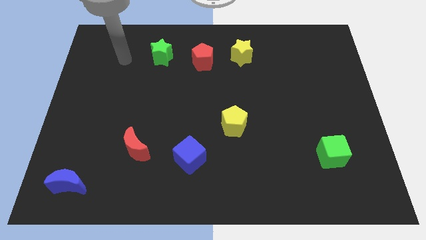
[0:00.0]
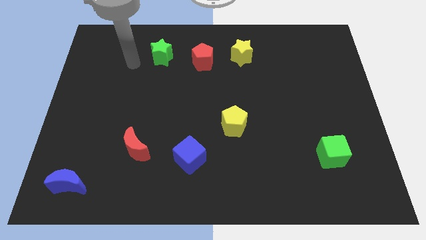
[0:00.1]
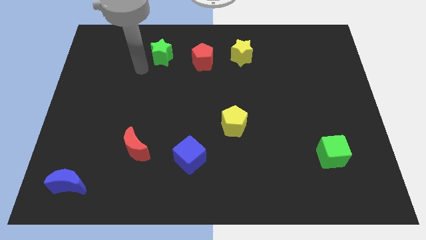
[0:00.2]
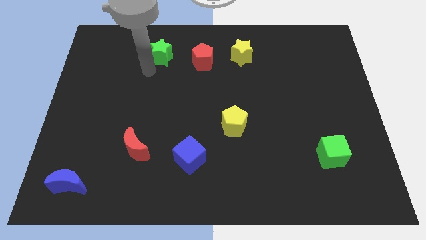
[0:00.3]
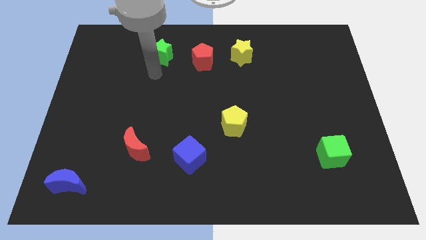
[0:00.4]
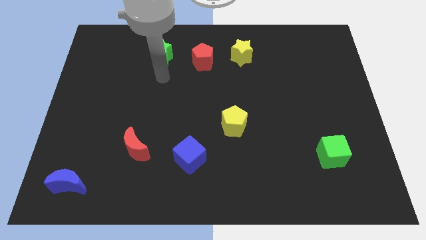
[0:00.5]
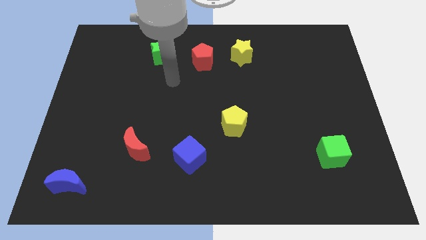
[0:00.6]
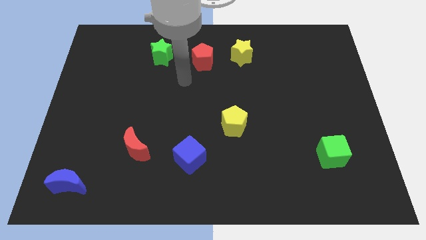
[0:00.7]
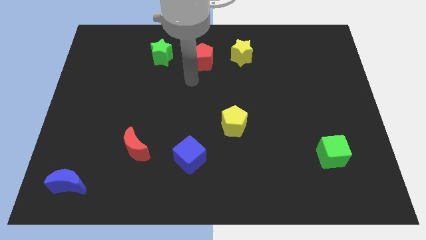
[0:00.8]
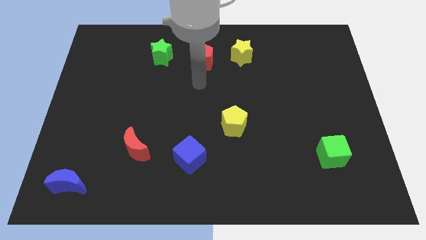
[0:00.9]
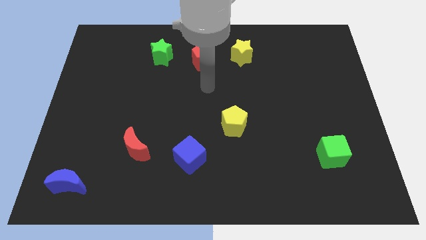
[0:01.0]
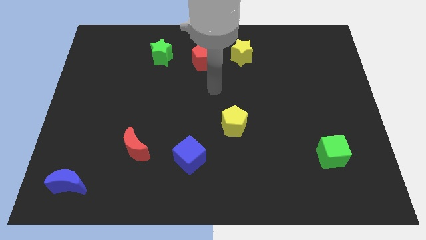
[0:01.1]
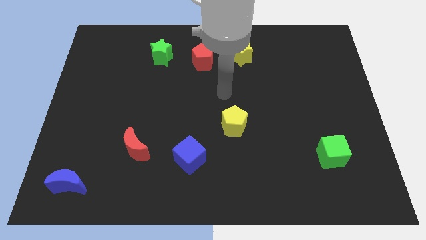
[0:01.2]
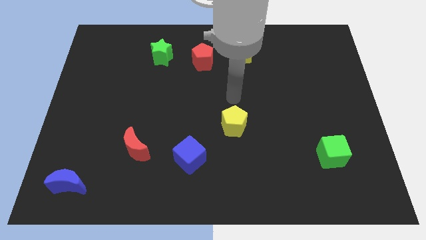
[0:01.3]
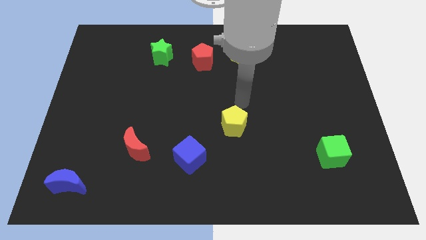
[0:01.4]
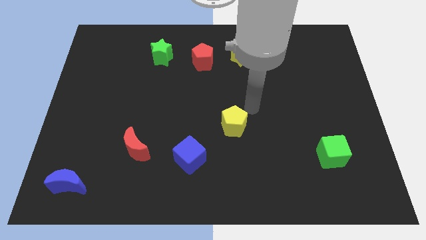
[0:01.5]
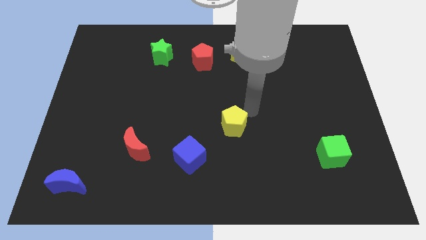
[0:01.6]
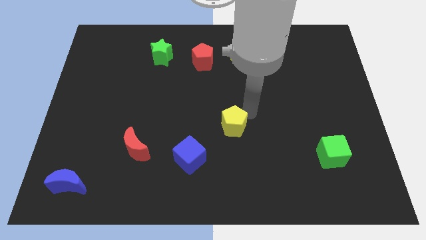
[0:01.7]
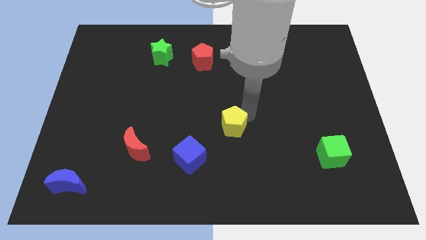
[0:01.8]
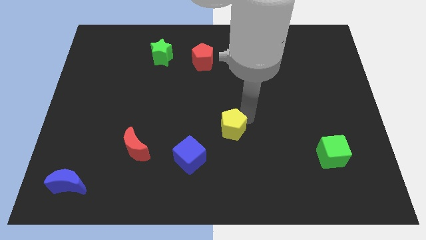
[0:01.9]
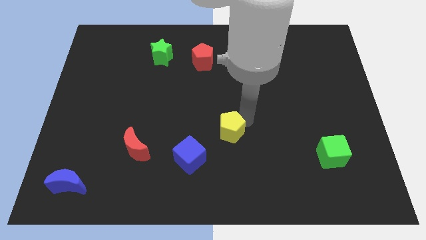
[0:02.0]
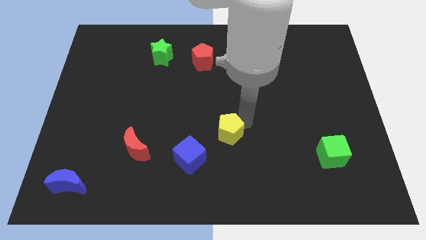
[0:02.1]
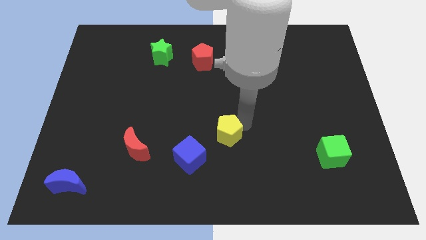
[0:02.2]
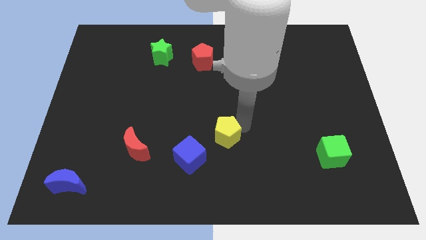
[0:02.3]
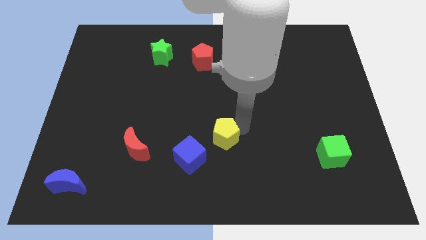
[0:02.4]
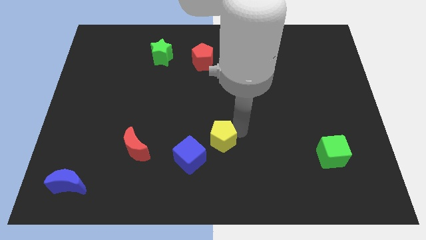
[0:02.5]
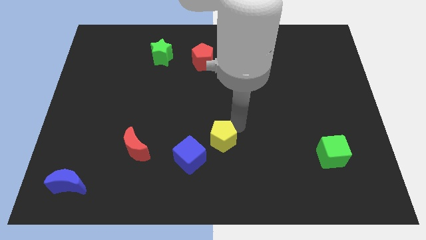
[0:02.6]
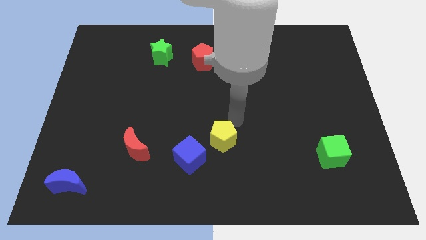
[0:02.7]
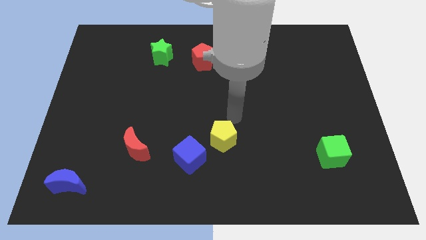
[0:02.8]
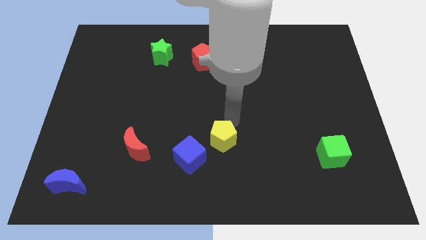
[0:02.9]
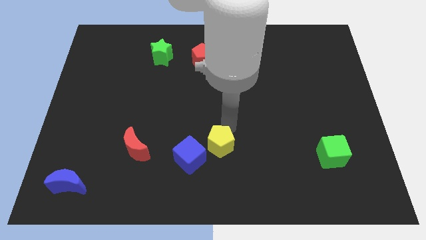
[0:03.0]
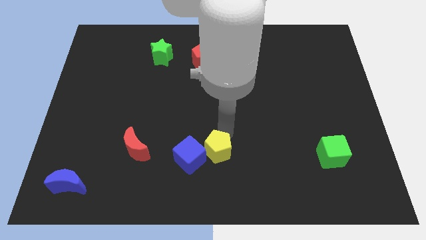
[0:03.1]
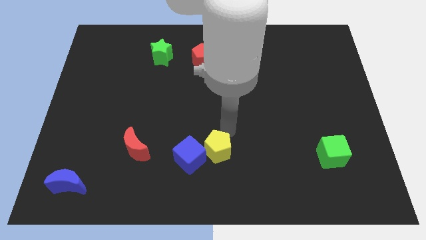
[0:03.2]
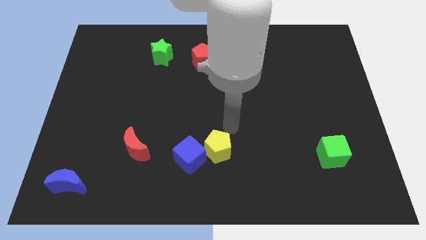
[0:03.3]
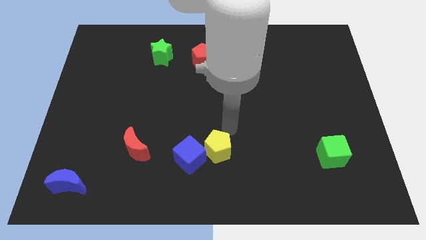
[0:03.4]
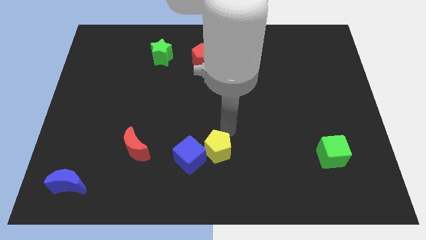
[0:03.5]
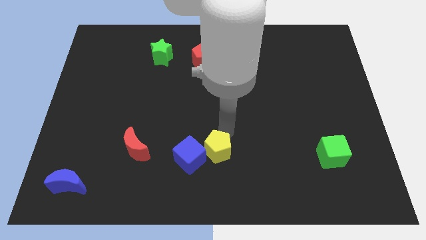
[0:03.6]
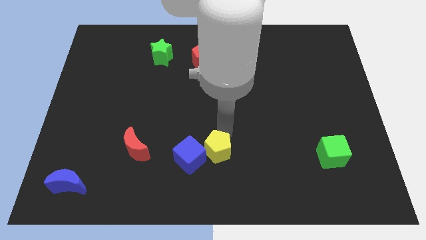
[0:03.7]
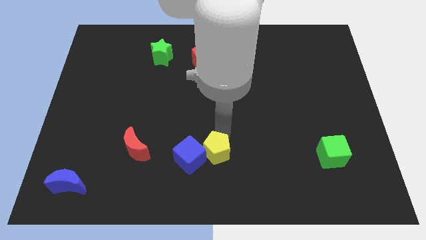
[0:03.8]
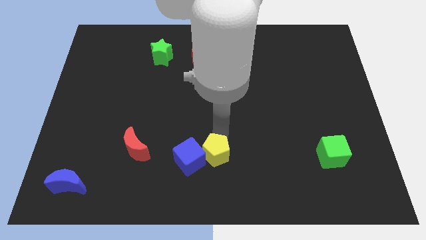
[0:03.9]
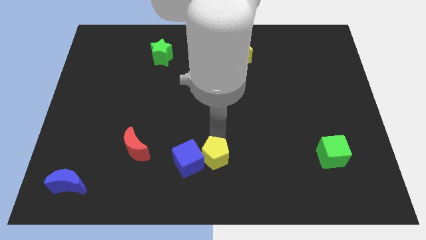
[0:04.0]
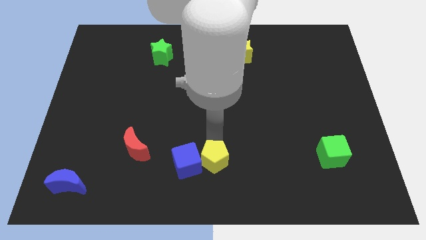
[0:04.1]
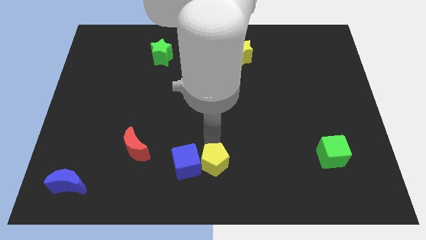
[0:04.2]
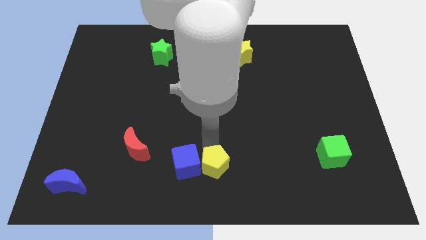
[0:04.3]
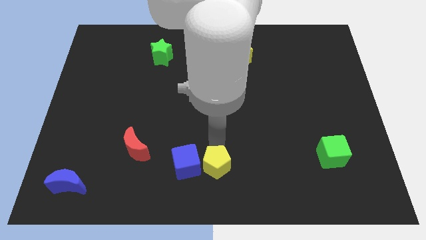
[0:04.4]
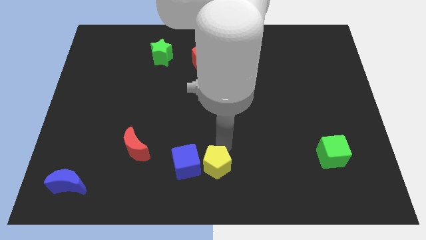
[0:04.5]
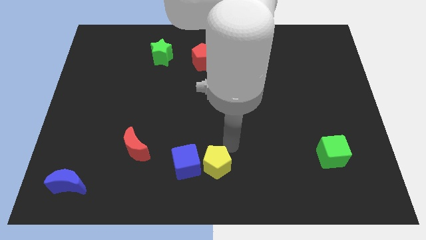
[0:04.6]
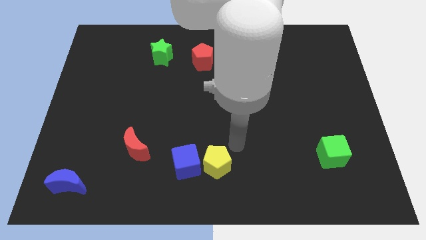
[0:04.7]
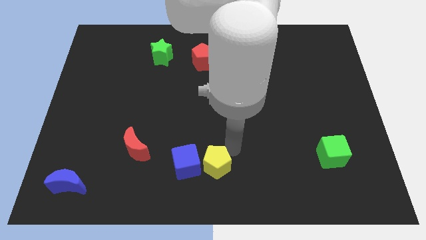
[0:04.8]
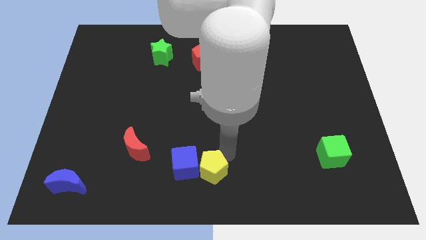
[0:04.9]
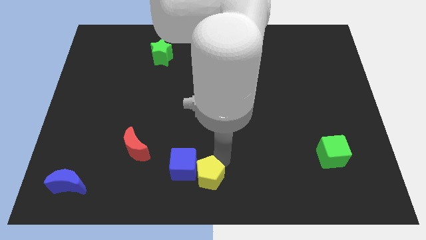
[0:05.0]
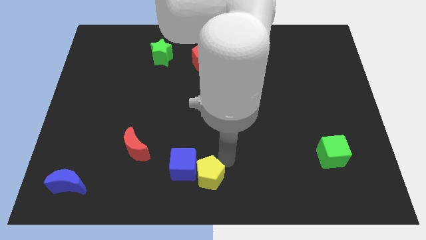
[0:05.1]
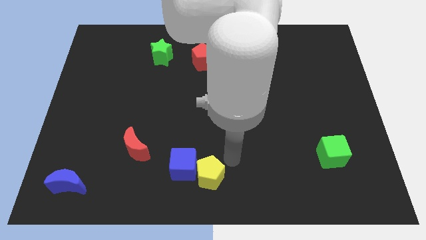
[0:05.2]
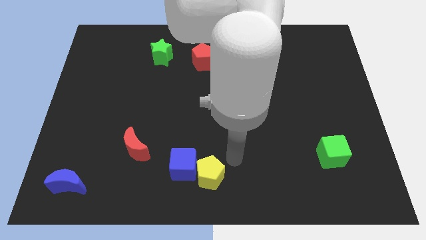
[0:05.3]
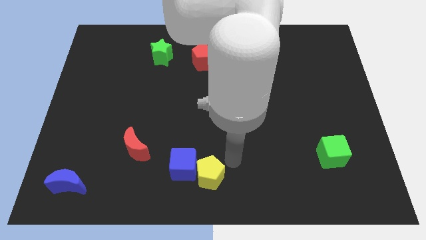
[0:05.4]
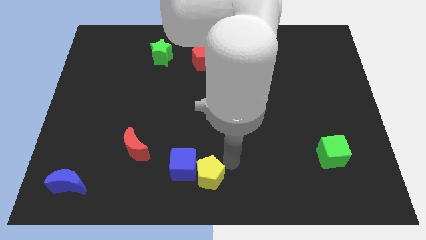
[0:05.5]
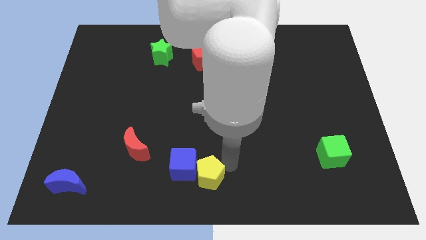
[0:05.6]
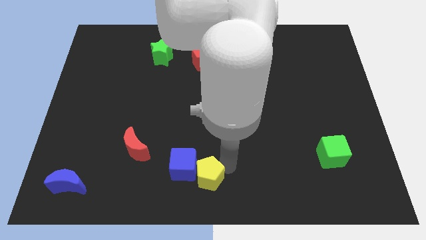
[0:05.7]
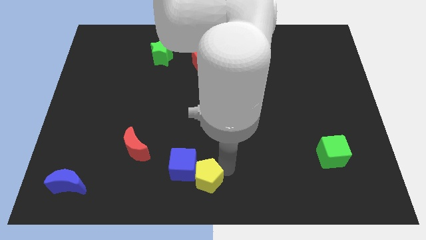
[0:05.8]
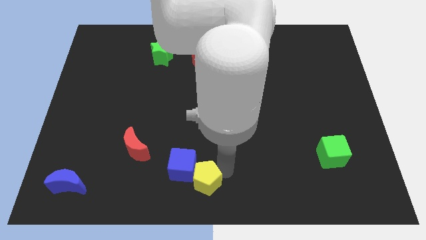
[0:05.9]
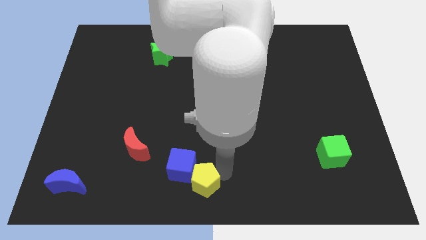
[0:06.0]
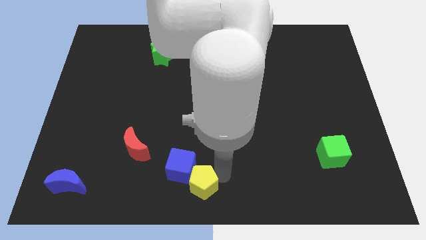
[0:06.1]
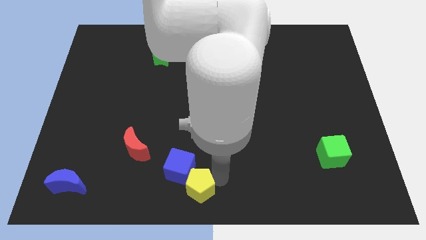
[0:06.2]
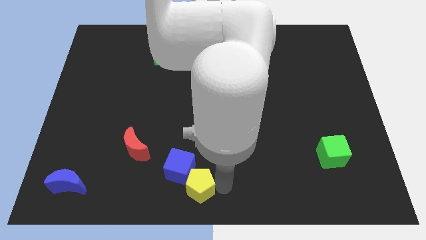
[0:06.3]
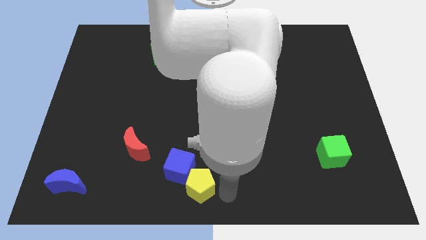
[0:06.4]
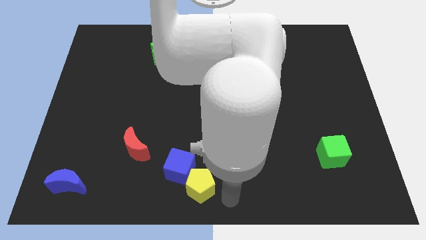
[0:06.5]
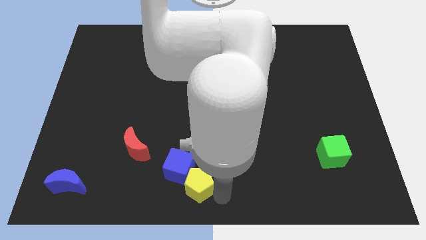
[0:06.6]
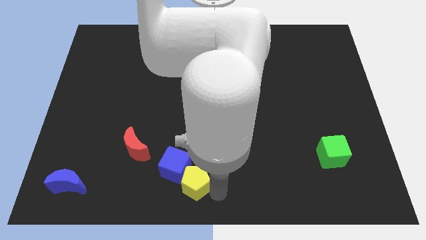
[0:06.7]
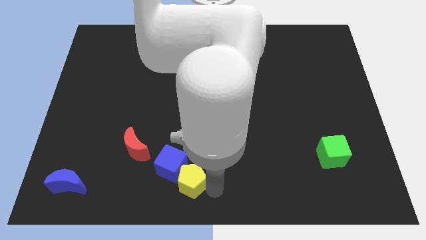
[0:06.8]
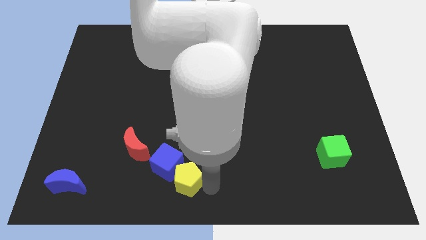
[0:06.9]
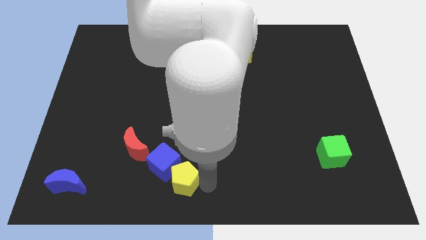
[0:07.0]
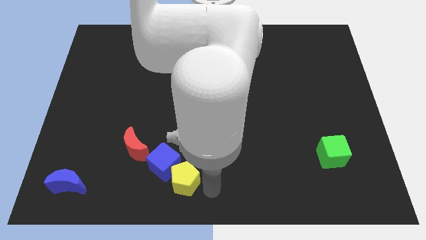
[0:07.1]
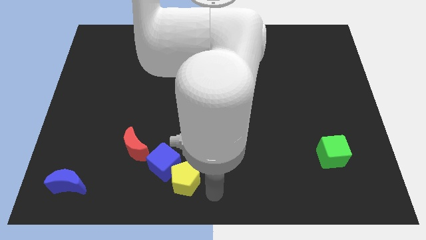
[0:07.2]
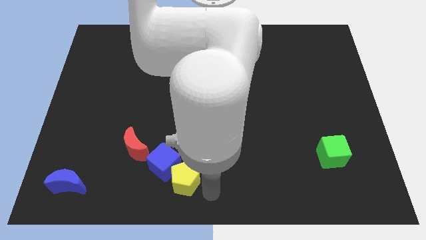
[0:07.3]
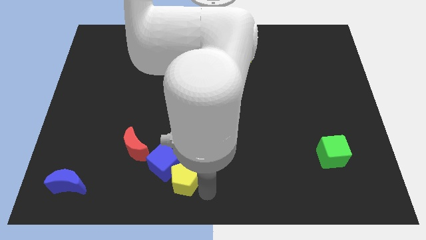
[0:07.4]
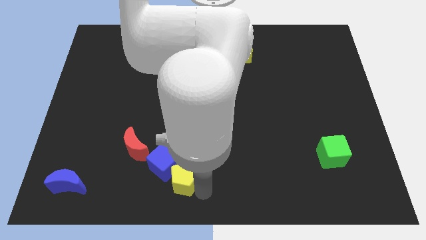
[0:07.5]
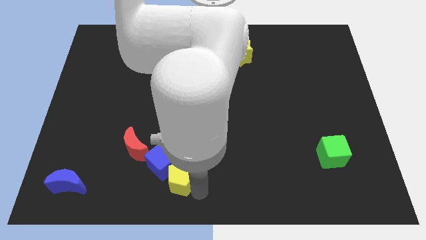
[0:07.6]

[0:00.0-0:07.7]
put the yellow pentagon diagonally down and to the right of the red moon
